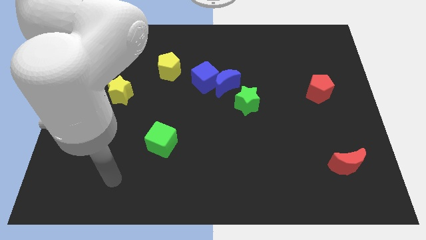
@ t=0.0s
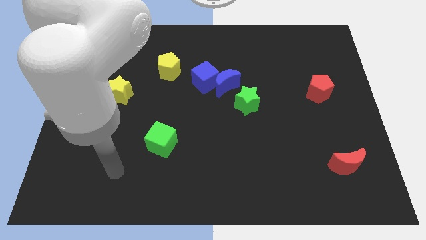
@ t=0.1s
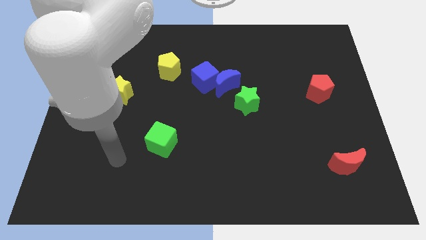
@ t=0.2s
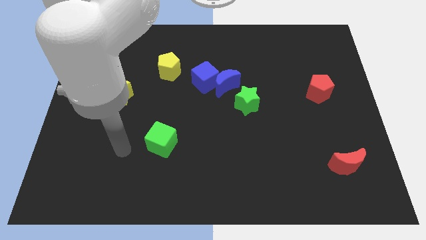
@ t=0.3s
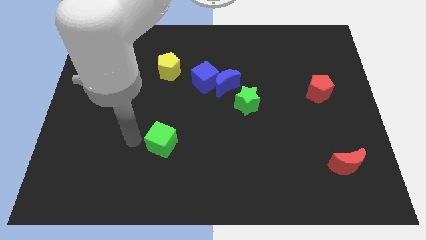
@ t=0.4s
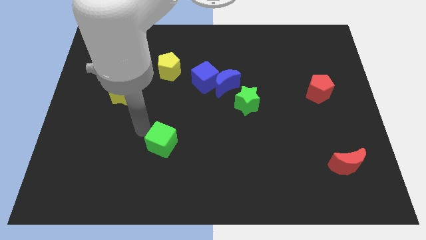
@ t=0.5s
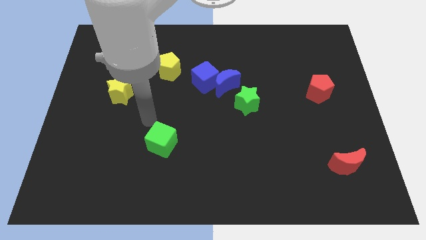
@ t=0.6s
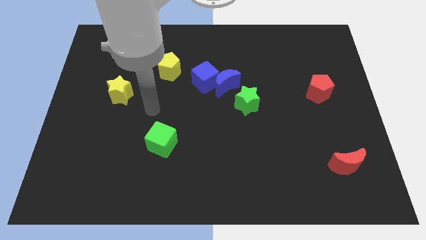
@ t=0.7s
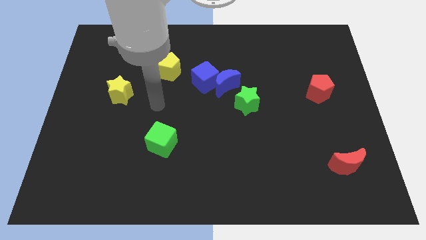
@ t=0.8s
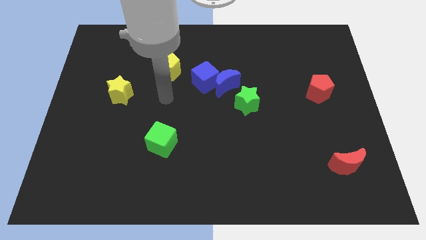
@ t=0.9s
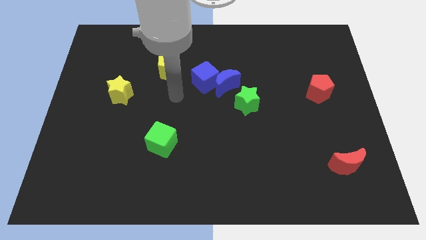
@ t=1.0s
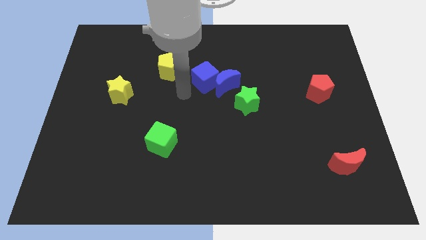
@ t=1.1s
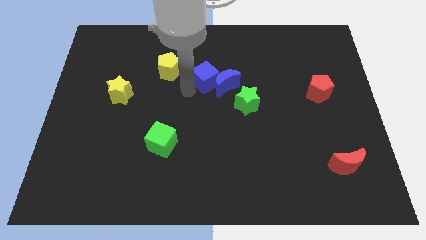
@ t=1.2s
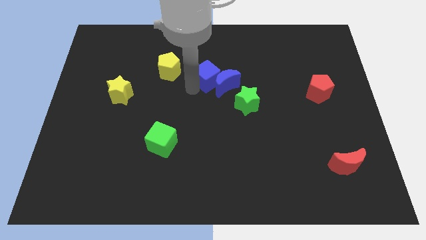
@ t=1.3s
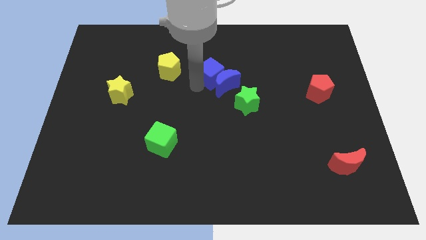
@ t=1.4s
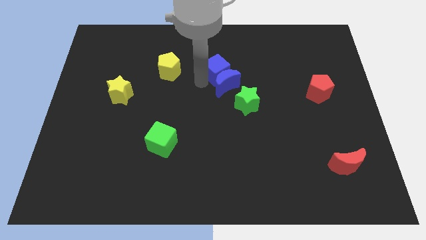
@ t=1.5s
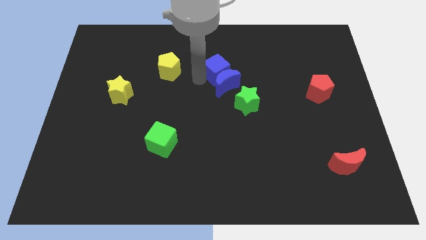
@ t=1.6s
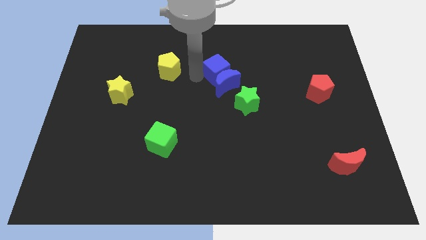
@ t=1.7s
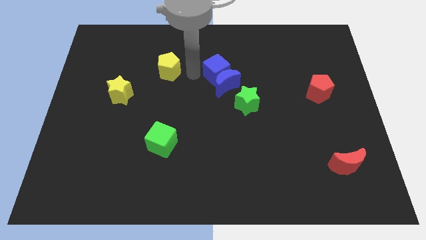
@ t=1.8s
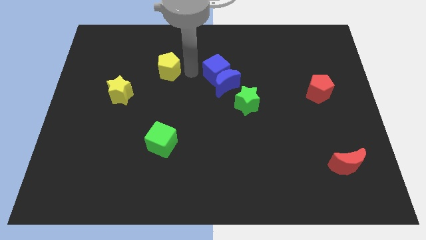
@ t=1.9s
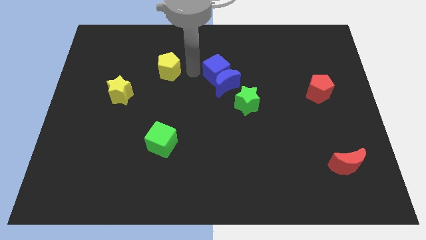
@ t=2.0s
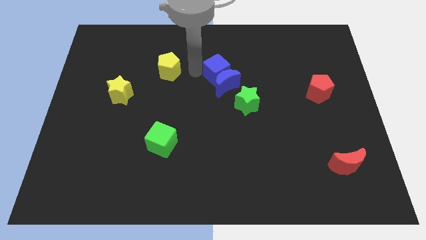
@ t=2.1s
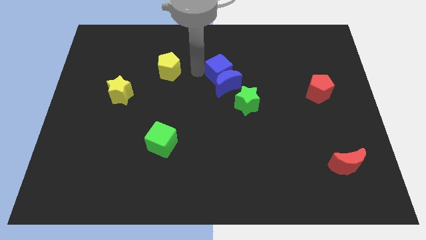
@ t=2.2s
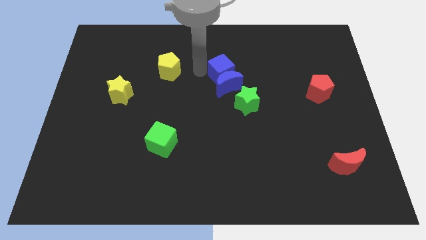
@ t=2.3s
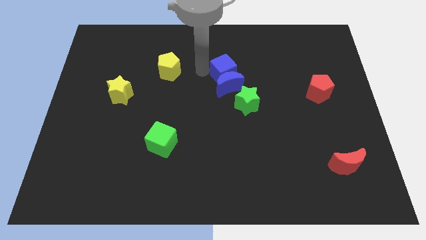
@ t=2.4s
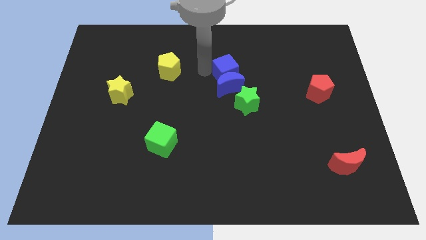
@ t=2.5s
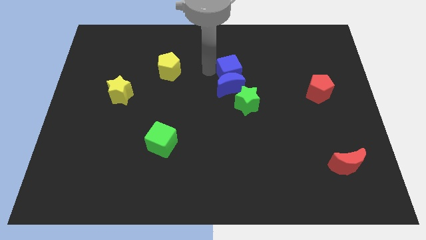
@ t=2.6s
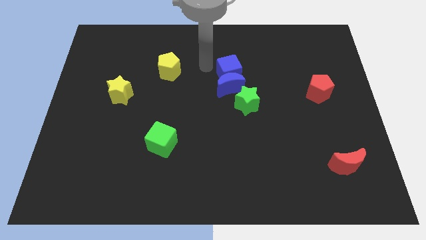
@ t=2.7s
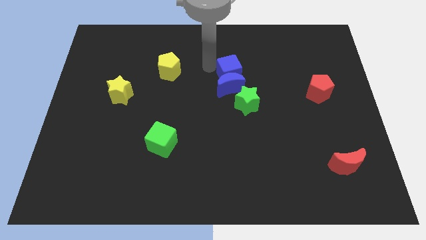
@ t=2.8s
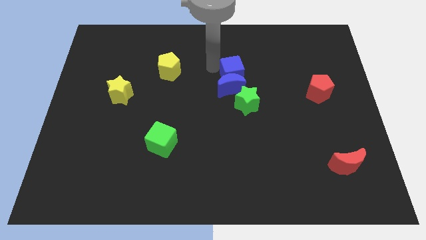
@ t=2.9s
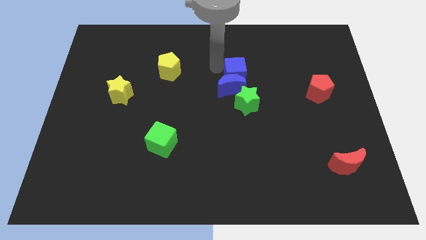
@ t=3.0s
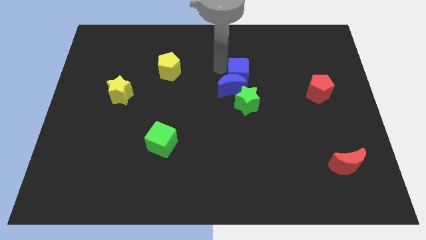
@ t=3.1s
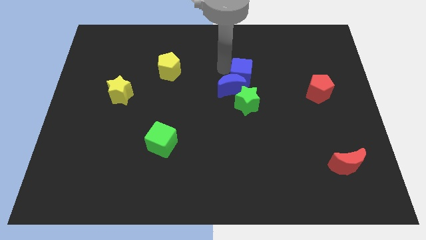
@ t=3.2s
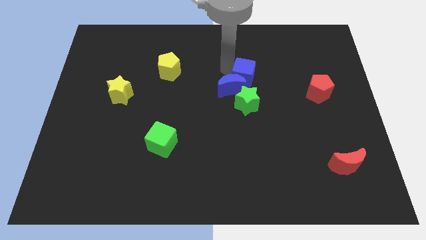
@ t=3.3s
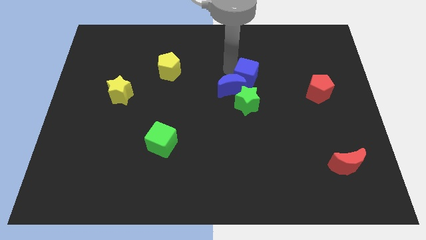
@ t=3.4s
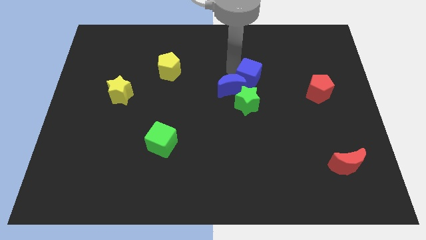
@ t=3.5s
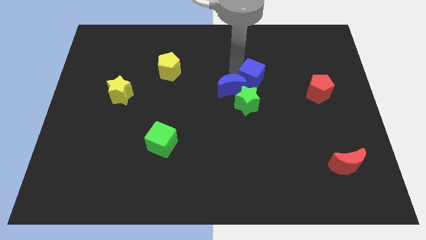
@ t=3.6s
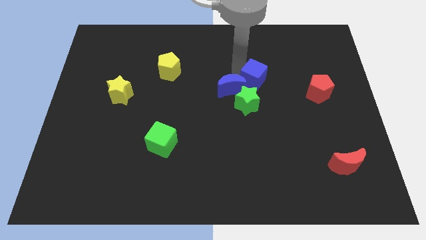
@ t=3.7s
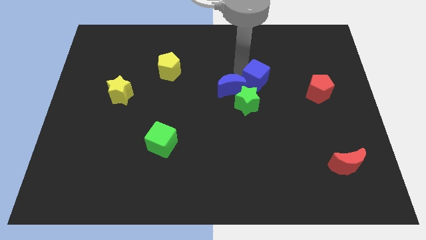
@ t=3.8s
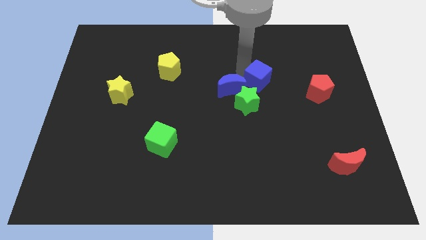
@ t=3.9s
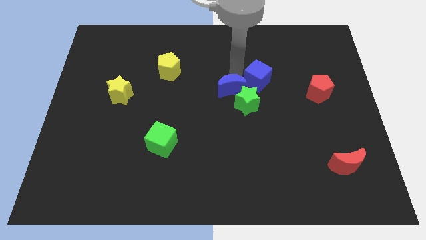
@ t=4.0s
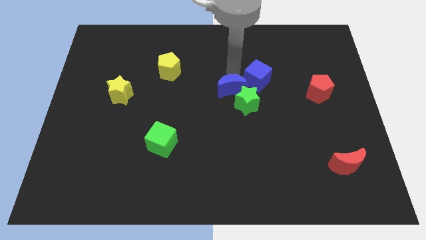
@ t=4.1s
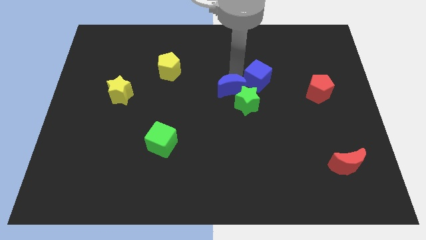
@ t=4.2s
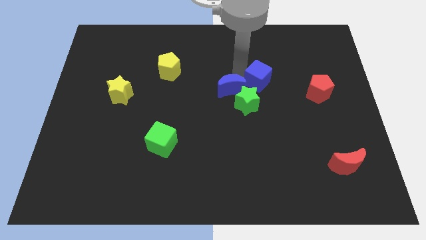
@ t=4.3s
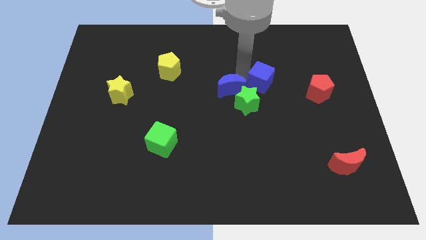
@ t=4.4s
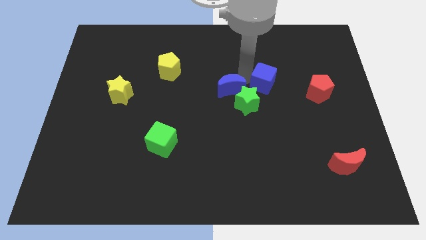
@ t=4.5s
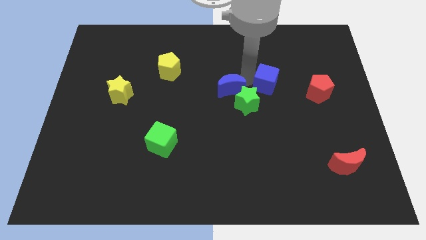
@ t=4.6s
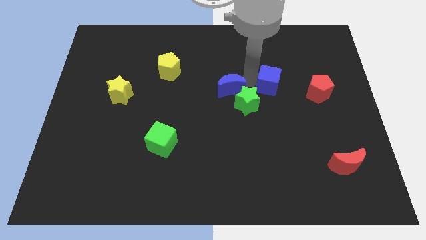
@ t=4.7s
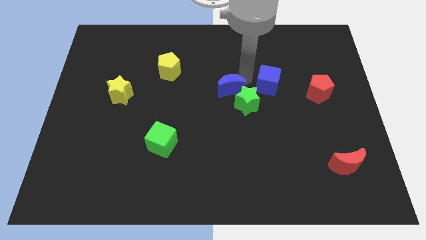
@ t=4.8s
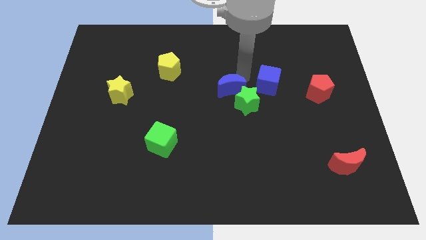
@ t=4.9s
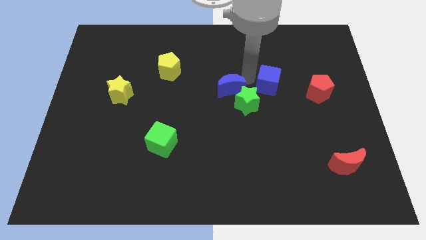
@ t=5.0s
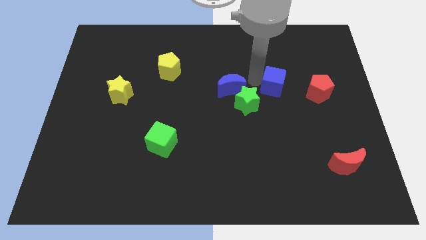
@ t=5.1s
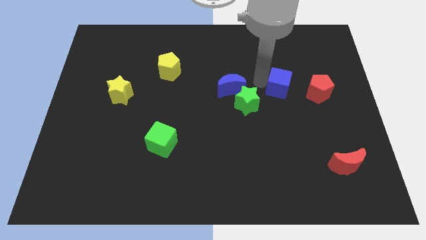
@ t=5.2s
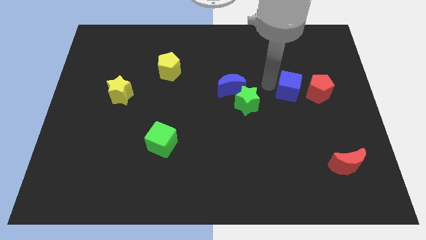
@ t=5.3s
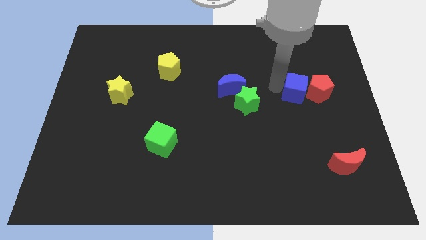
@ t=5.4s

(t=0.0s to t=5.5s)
move the blue cube towards the red pentagon

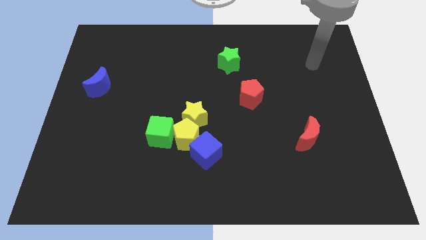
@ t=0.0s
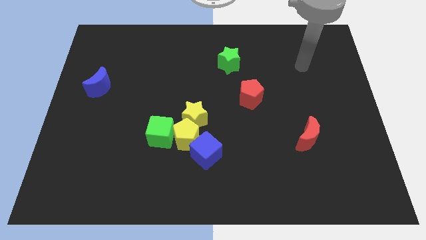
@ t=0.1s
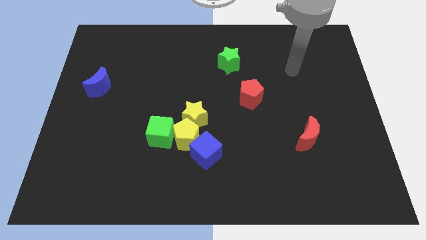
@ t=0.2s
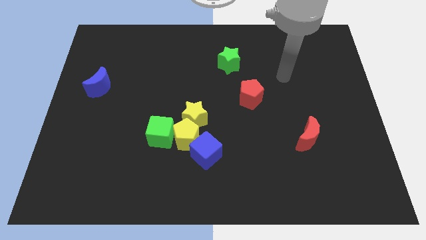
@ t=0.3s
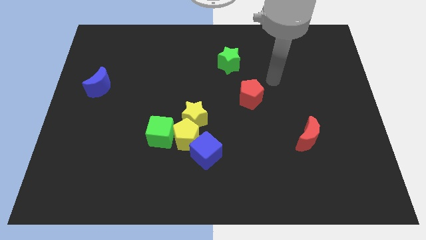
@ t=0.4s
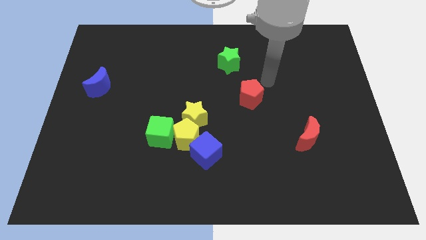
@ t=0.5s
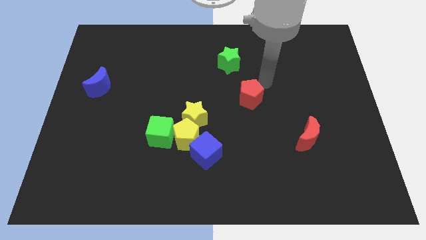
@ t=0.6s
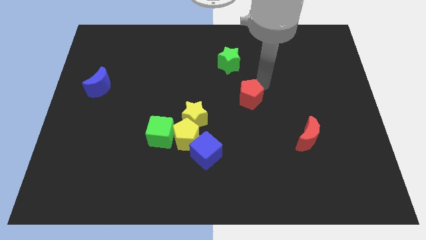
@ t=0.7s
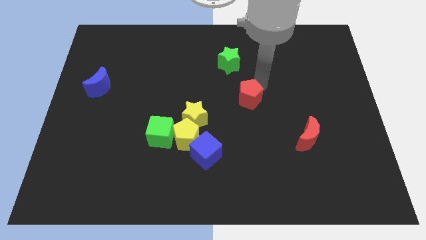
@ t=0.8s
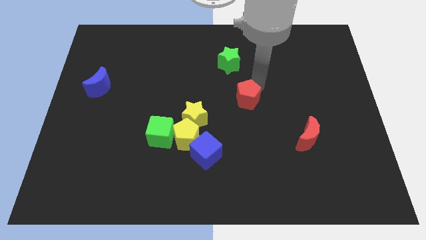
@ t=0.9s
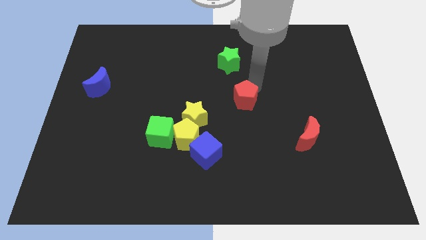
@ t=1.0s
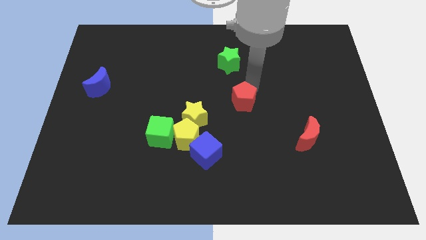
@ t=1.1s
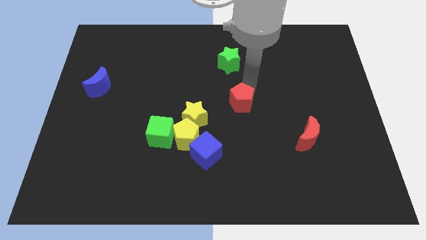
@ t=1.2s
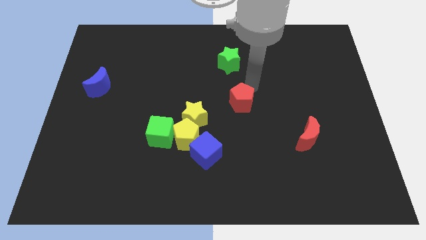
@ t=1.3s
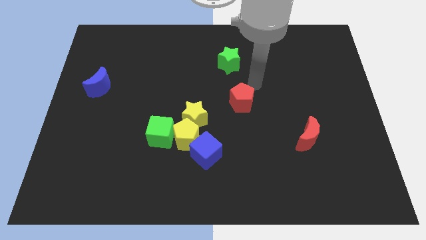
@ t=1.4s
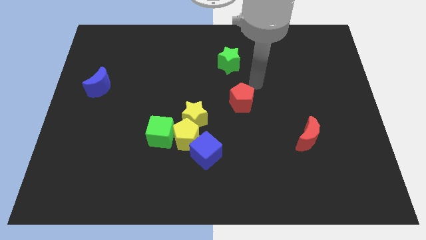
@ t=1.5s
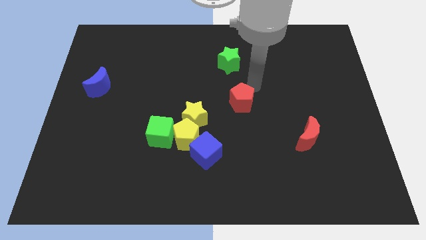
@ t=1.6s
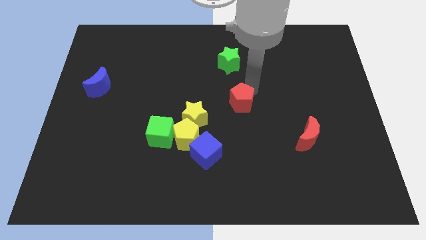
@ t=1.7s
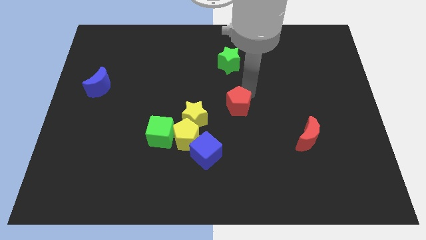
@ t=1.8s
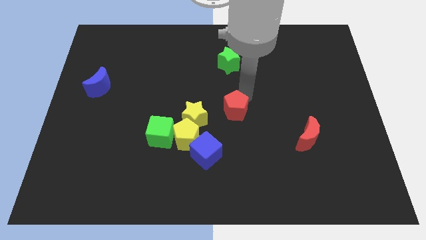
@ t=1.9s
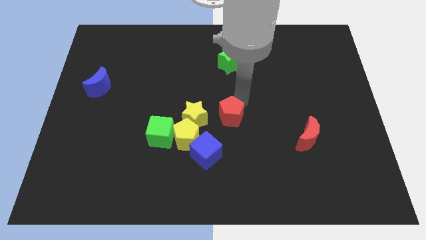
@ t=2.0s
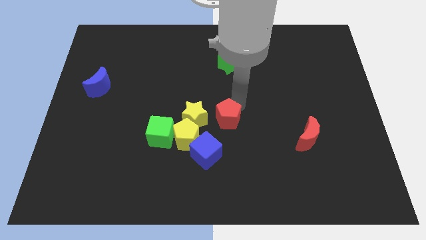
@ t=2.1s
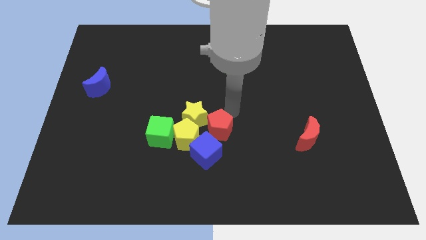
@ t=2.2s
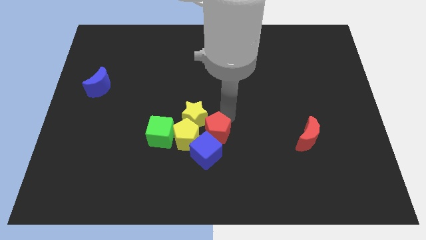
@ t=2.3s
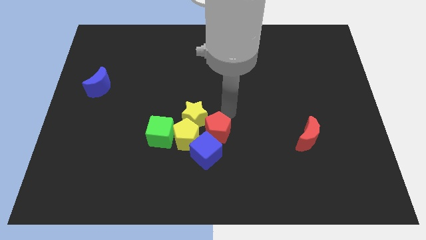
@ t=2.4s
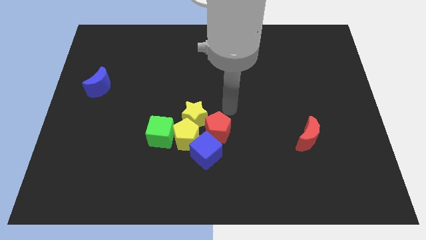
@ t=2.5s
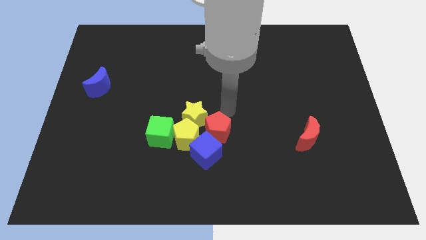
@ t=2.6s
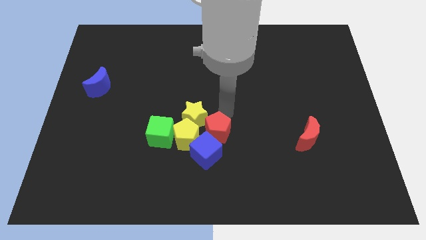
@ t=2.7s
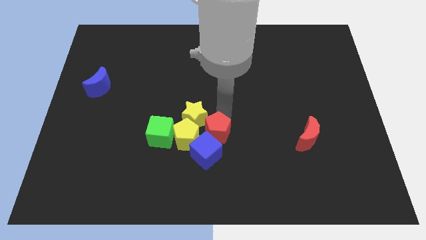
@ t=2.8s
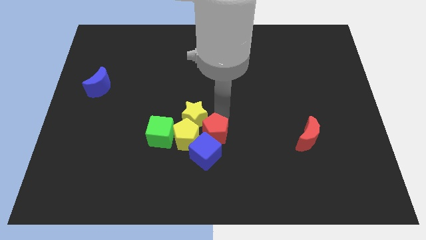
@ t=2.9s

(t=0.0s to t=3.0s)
slide the red pentagon close to the blue cube
